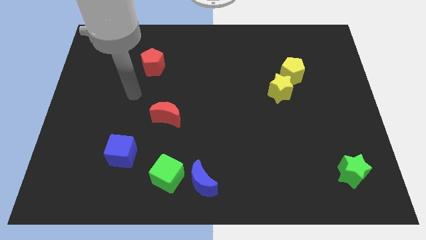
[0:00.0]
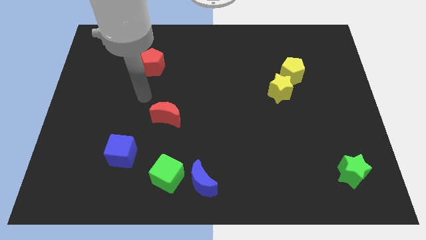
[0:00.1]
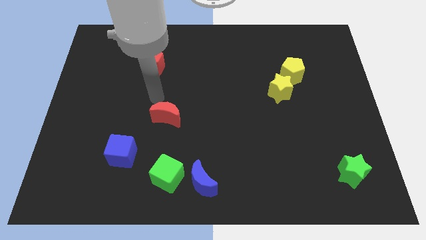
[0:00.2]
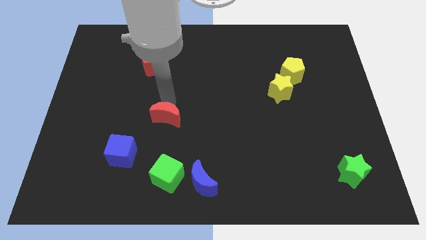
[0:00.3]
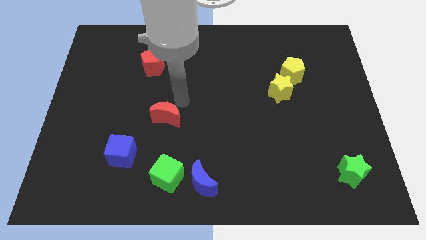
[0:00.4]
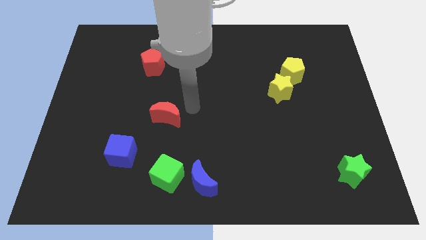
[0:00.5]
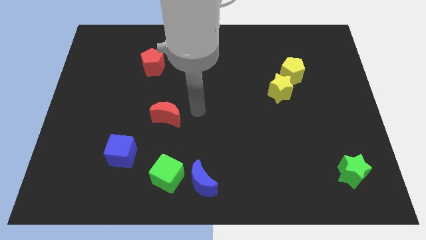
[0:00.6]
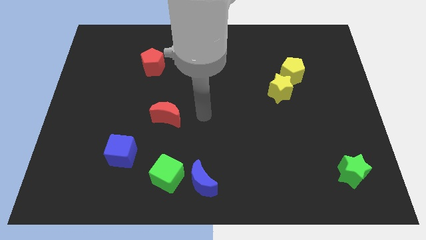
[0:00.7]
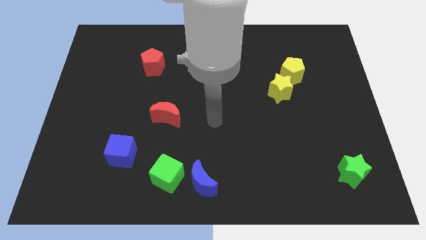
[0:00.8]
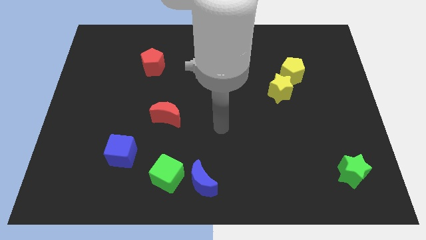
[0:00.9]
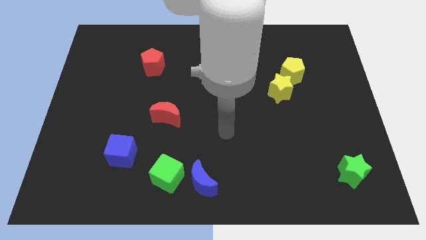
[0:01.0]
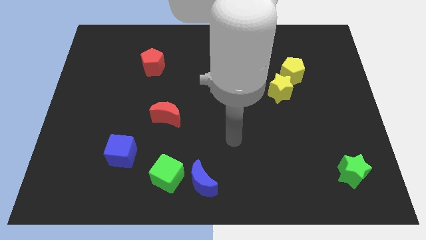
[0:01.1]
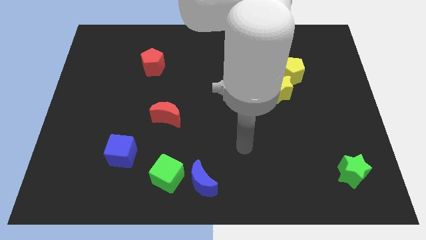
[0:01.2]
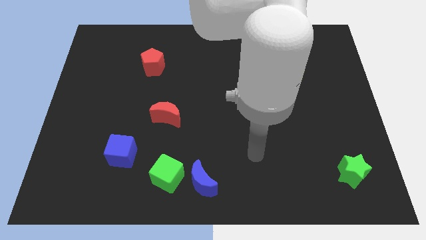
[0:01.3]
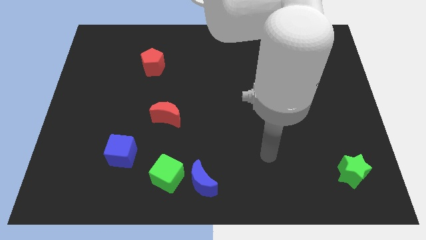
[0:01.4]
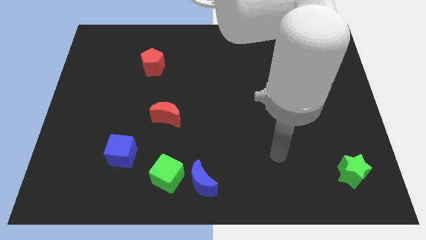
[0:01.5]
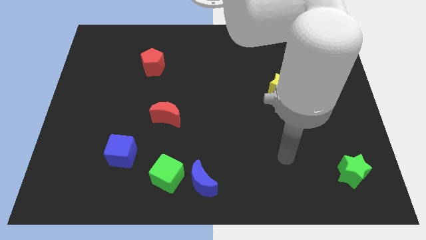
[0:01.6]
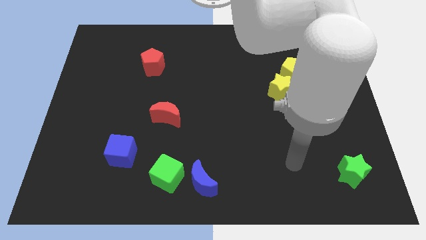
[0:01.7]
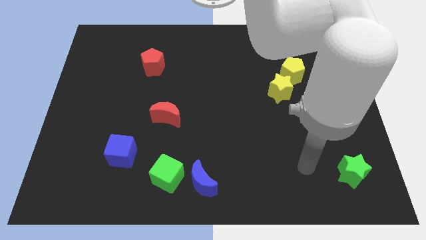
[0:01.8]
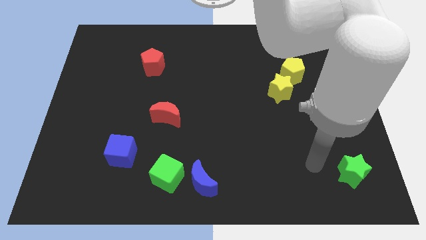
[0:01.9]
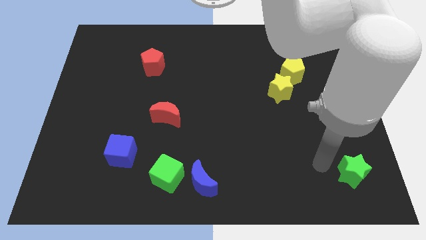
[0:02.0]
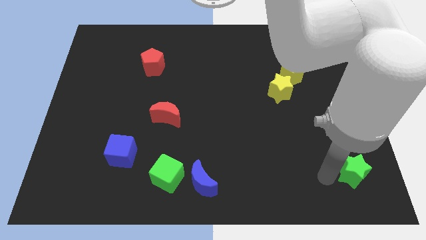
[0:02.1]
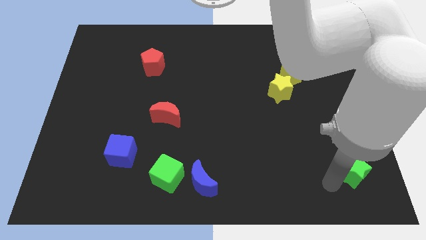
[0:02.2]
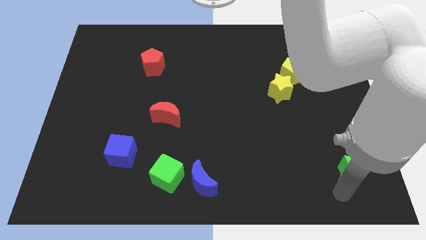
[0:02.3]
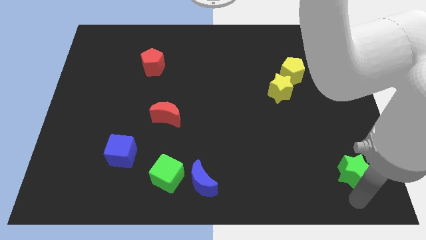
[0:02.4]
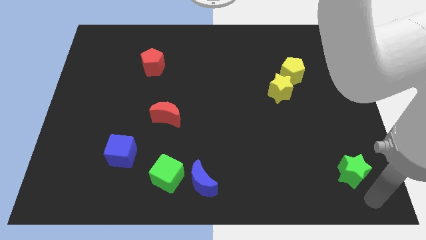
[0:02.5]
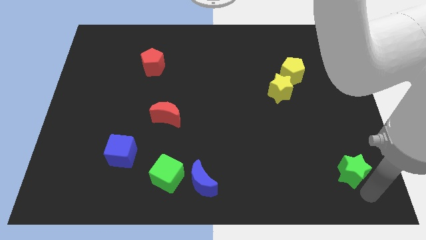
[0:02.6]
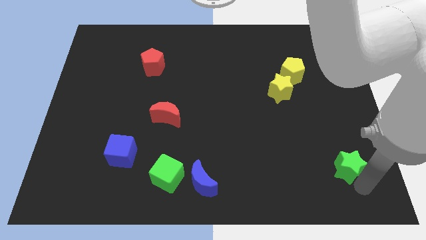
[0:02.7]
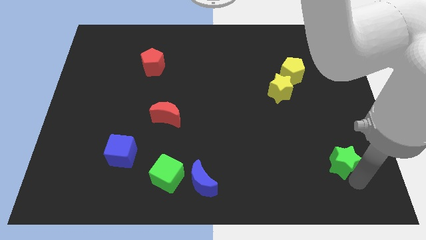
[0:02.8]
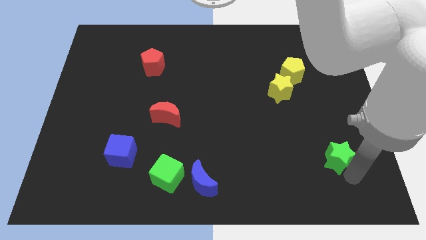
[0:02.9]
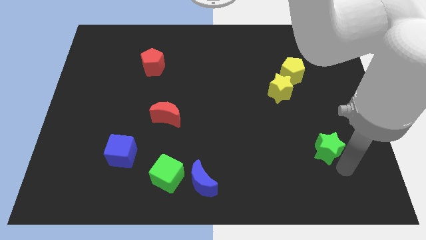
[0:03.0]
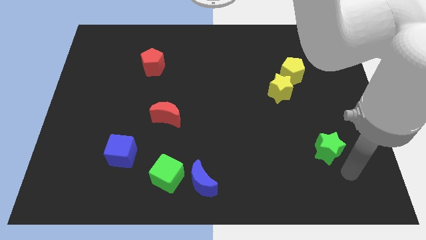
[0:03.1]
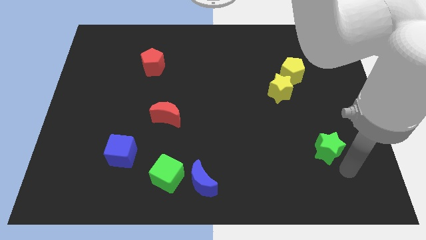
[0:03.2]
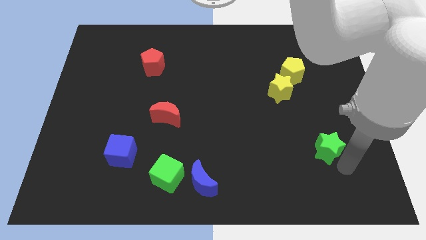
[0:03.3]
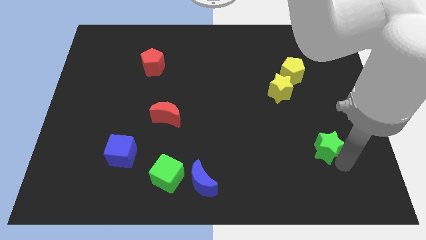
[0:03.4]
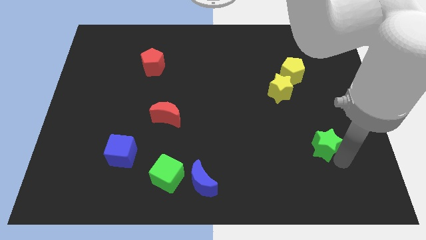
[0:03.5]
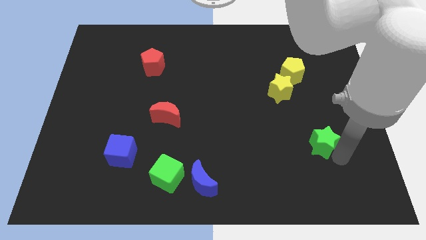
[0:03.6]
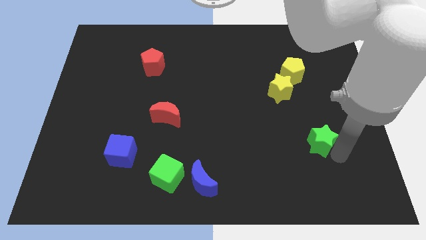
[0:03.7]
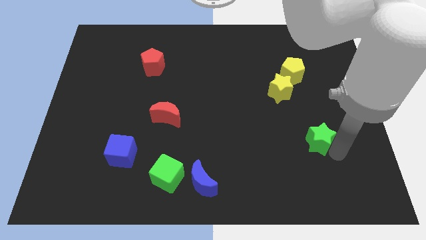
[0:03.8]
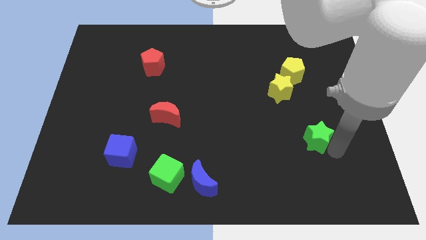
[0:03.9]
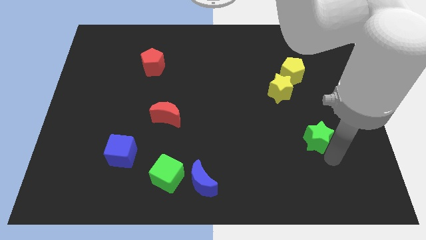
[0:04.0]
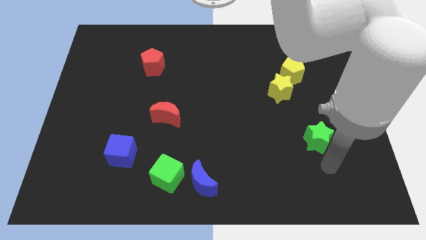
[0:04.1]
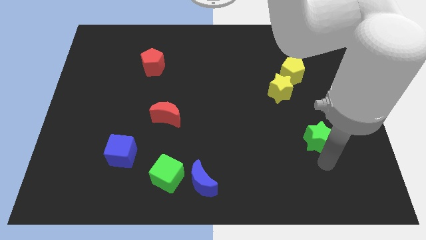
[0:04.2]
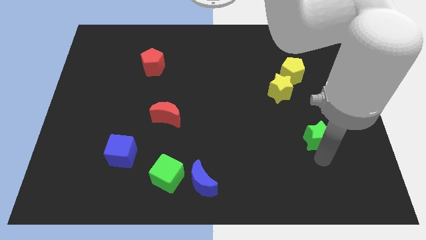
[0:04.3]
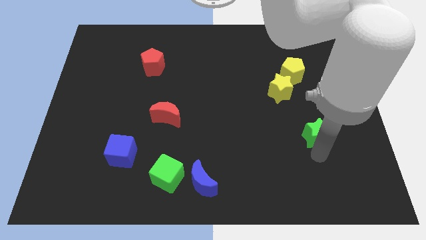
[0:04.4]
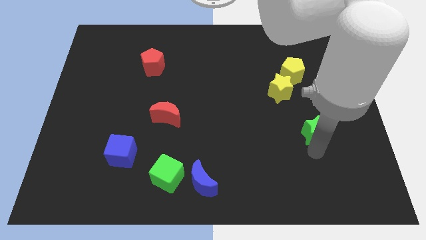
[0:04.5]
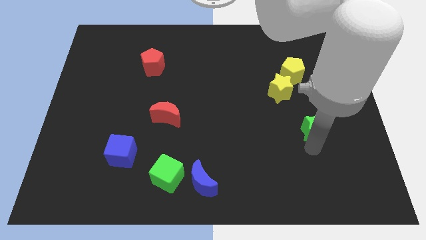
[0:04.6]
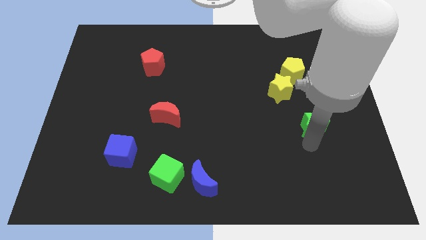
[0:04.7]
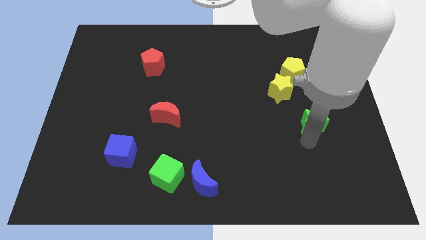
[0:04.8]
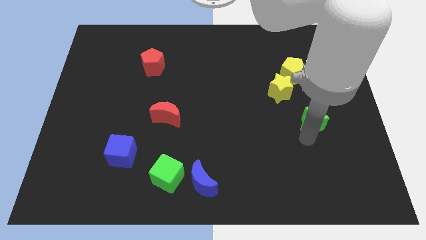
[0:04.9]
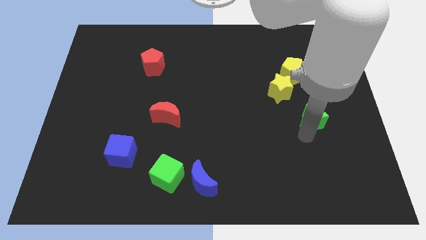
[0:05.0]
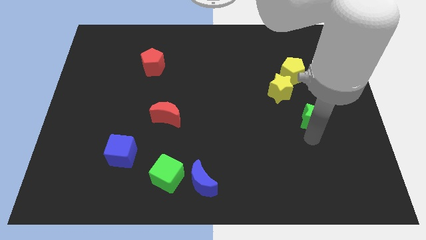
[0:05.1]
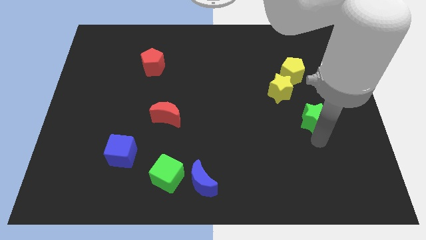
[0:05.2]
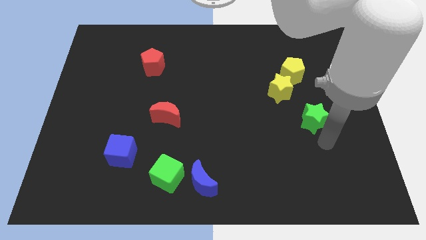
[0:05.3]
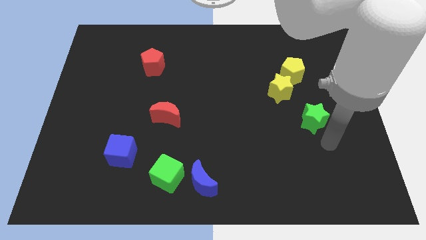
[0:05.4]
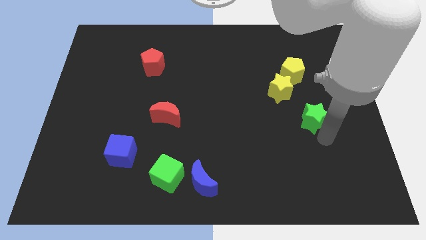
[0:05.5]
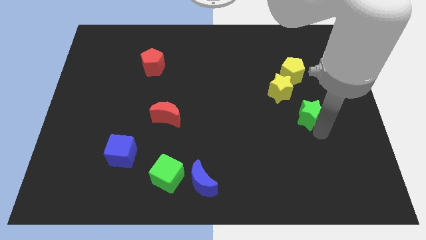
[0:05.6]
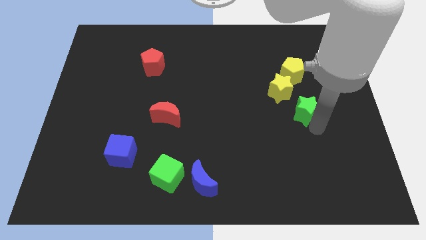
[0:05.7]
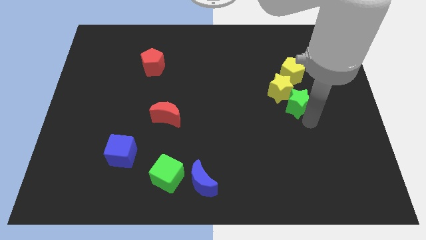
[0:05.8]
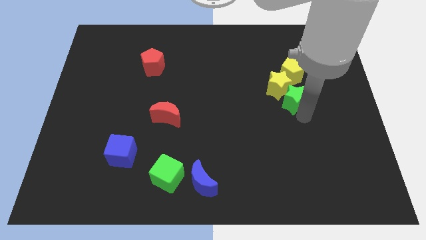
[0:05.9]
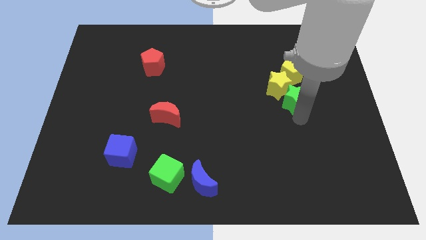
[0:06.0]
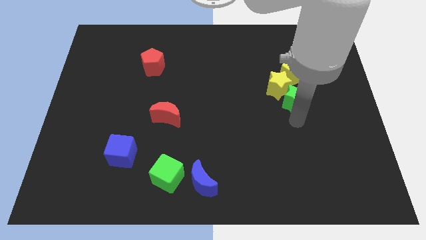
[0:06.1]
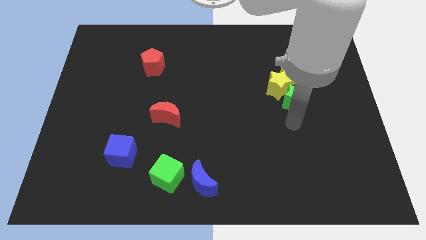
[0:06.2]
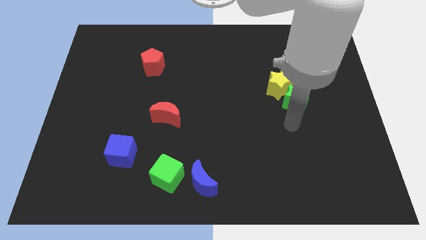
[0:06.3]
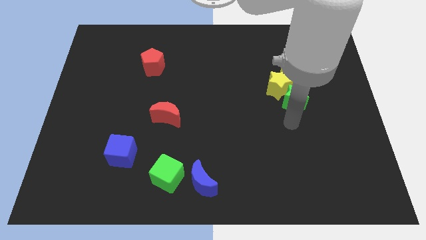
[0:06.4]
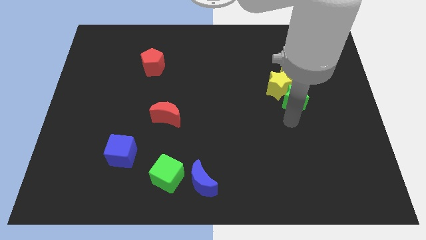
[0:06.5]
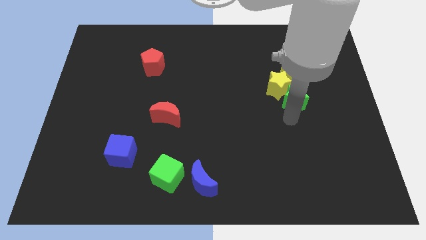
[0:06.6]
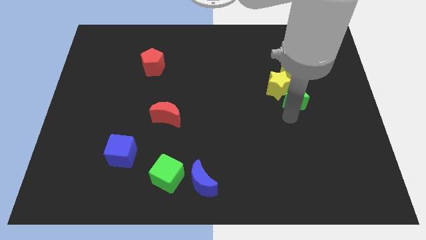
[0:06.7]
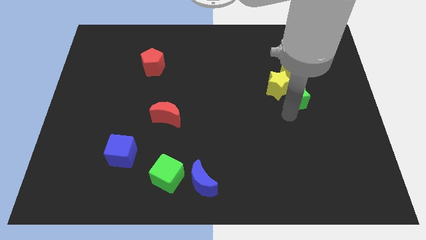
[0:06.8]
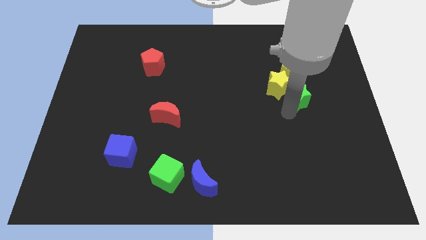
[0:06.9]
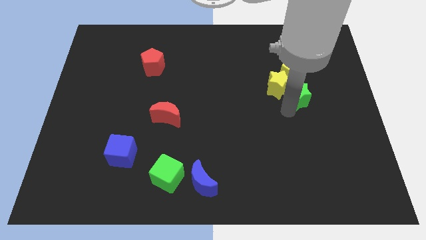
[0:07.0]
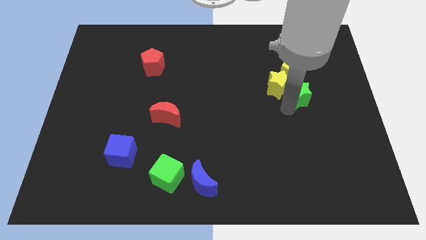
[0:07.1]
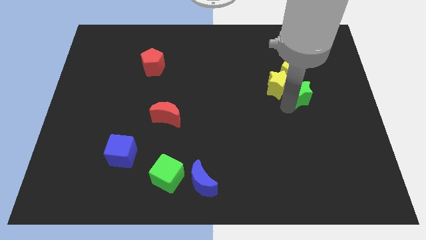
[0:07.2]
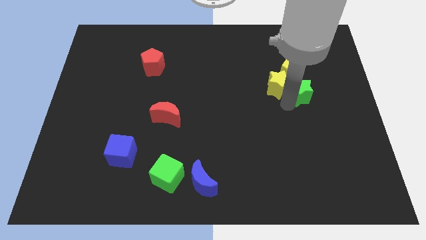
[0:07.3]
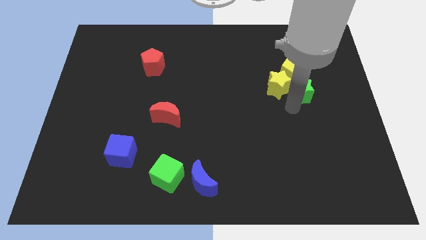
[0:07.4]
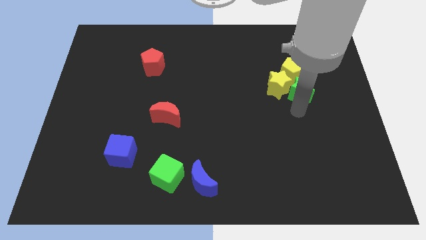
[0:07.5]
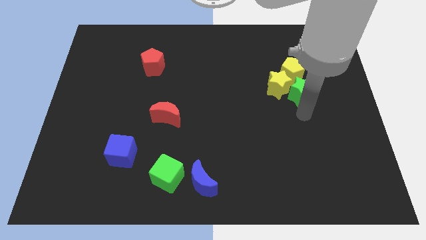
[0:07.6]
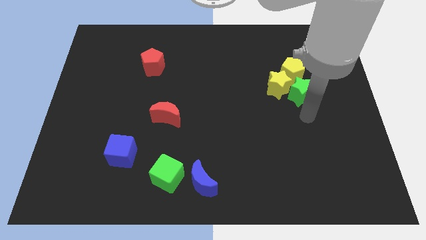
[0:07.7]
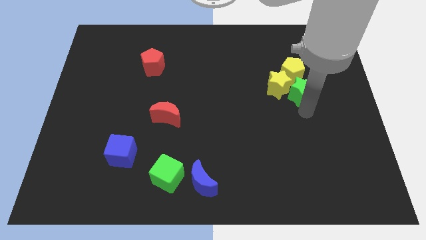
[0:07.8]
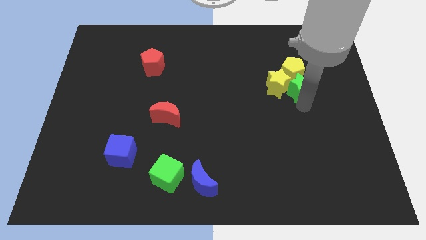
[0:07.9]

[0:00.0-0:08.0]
slide the green star towards the yellow pentagon
